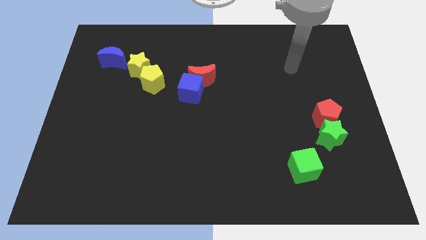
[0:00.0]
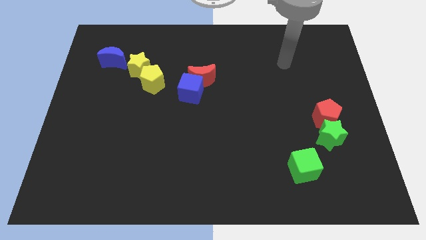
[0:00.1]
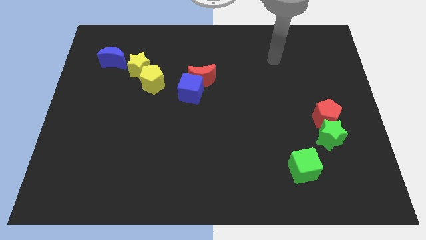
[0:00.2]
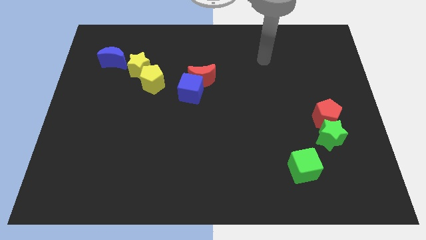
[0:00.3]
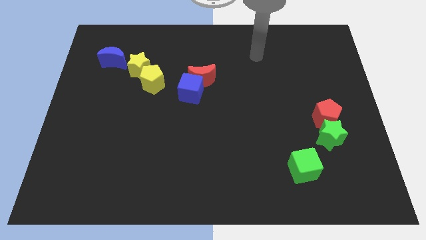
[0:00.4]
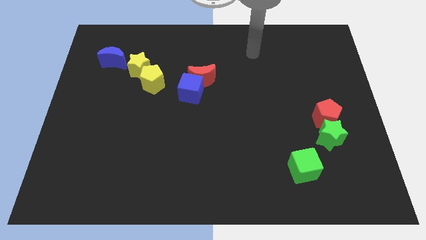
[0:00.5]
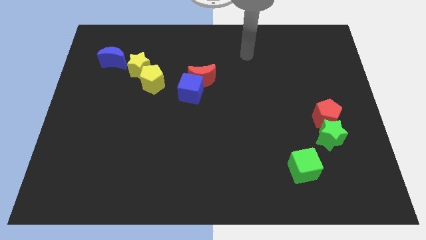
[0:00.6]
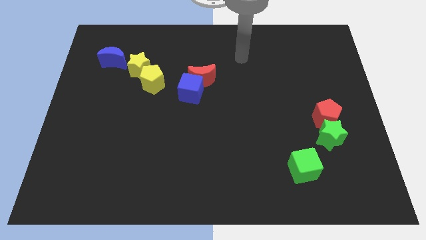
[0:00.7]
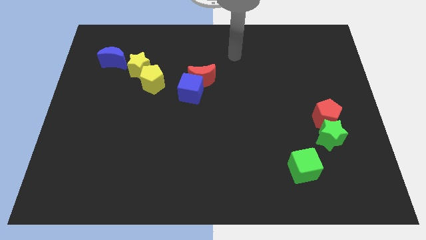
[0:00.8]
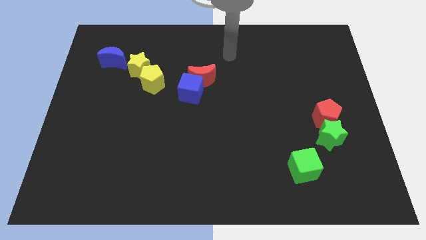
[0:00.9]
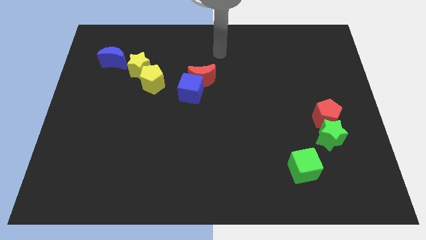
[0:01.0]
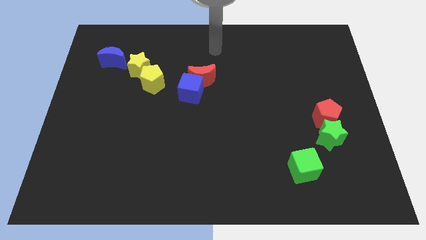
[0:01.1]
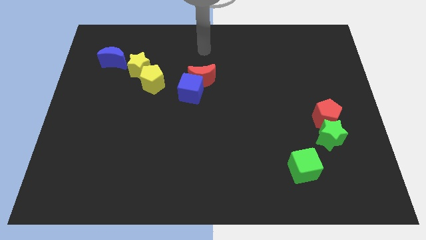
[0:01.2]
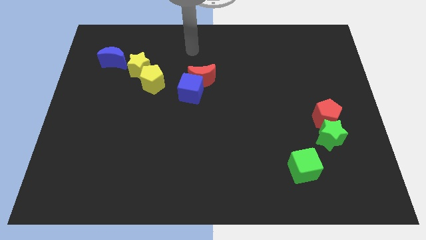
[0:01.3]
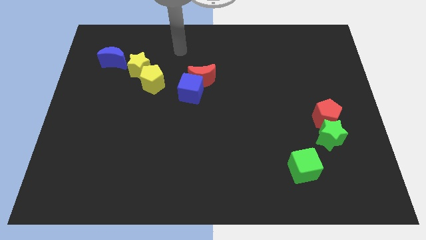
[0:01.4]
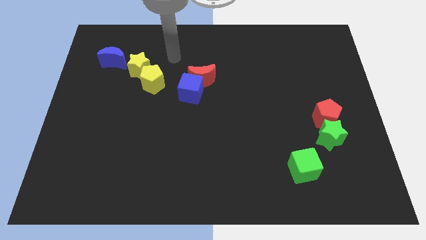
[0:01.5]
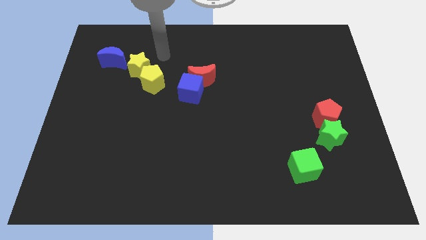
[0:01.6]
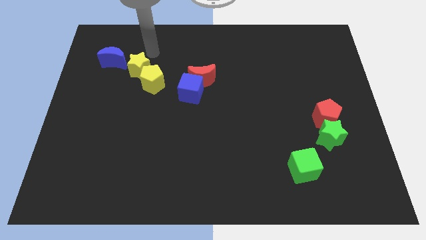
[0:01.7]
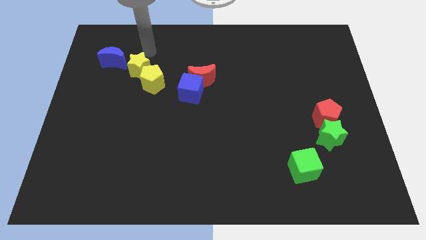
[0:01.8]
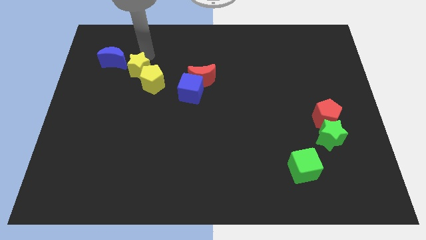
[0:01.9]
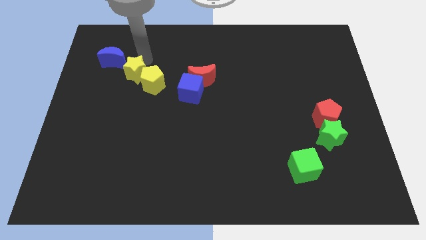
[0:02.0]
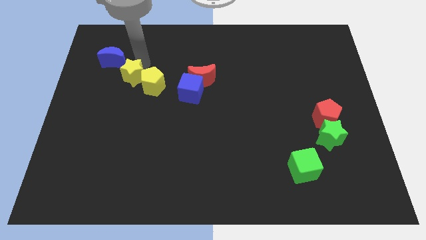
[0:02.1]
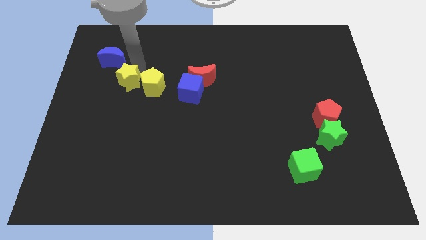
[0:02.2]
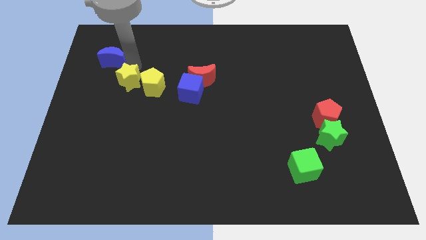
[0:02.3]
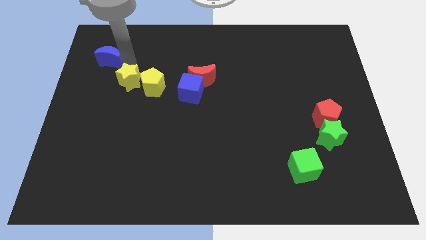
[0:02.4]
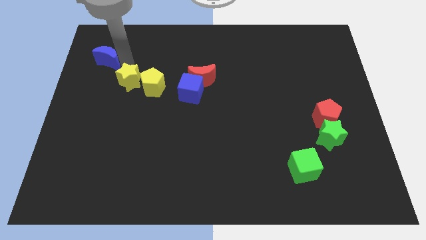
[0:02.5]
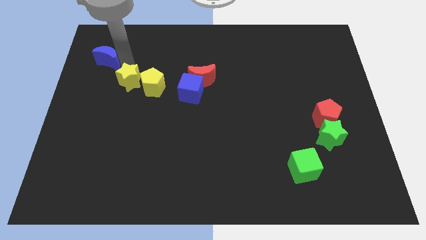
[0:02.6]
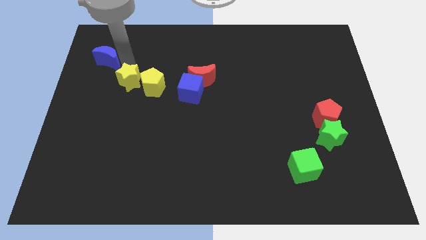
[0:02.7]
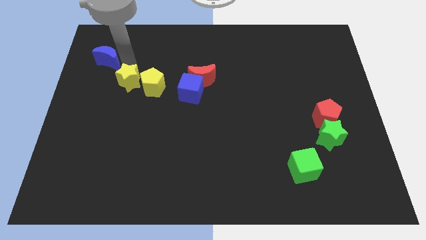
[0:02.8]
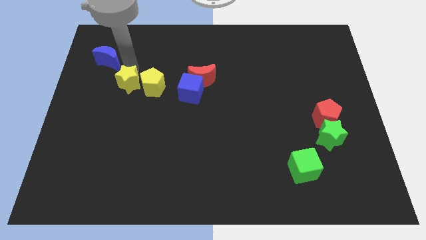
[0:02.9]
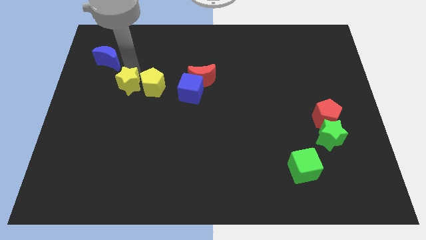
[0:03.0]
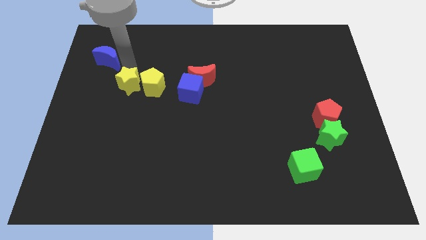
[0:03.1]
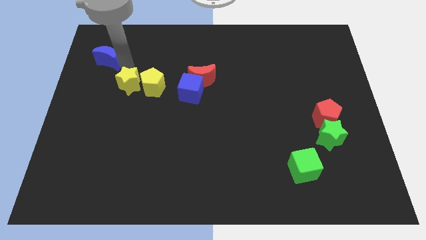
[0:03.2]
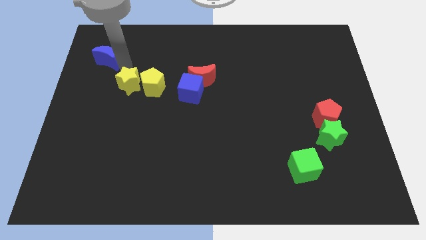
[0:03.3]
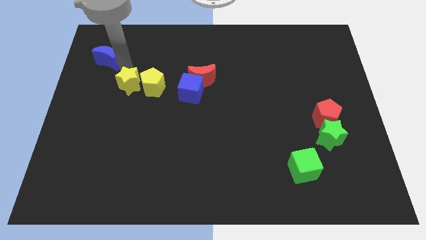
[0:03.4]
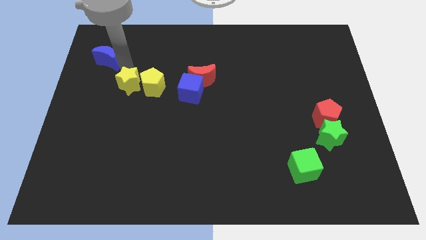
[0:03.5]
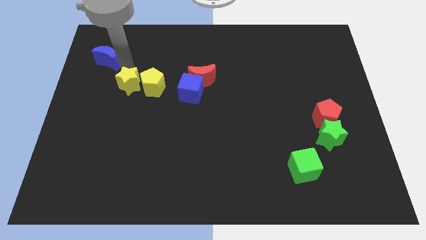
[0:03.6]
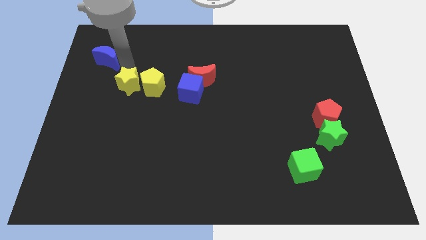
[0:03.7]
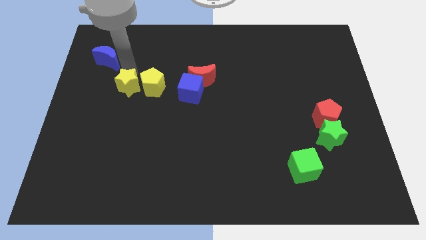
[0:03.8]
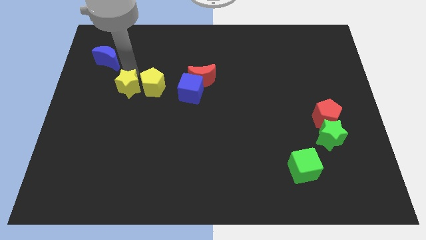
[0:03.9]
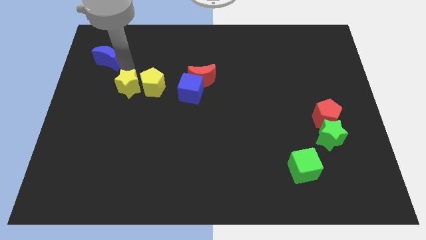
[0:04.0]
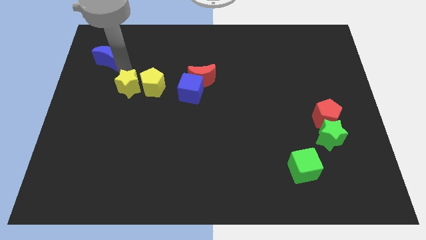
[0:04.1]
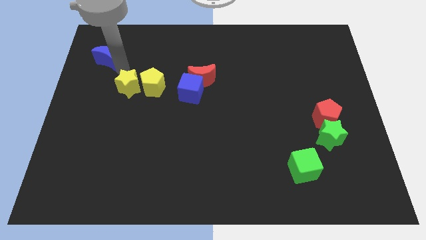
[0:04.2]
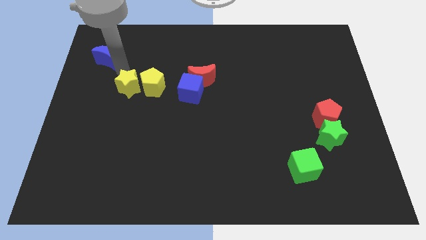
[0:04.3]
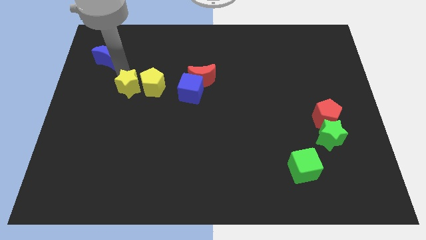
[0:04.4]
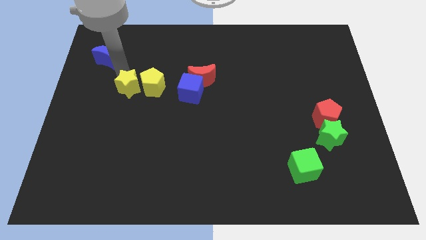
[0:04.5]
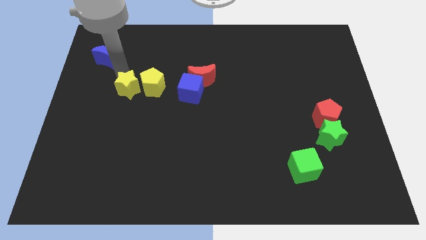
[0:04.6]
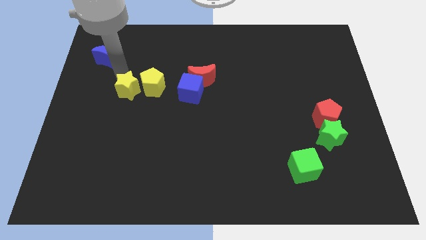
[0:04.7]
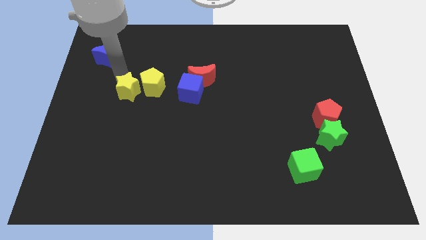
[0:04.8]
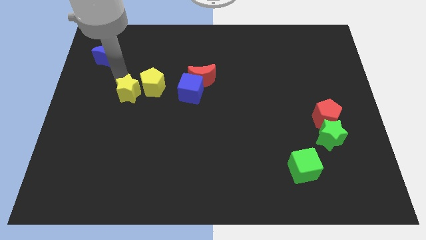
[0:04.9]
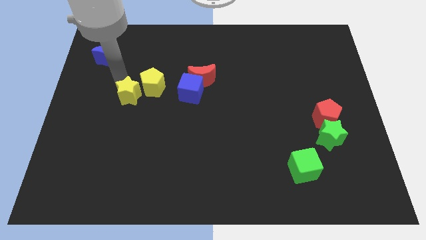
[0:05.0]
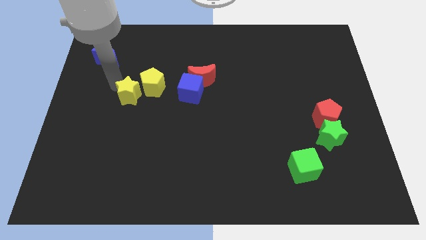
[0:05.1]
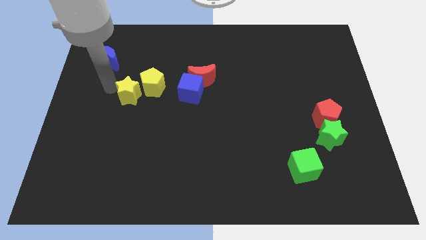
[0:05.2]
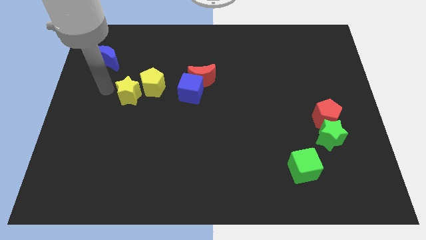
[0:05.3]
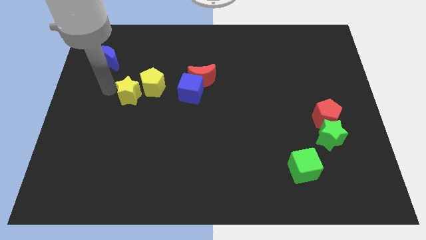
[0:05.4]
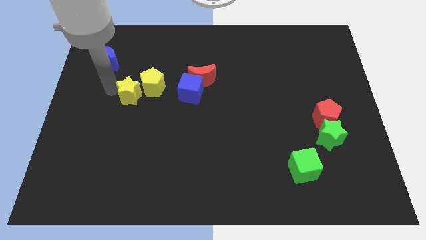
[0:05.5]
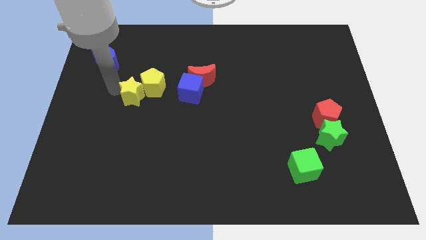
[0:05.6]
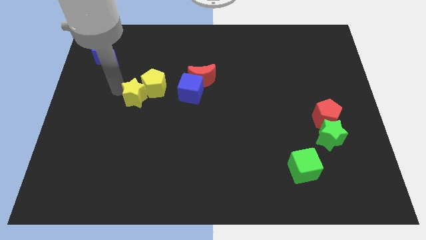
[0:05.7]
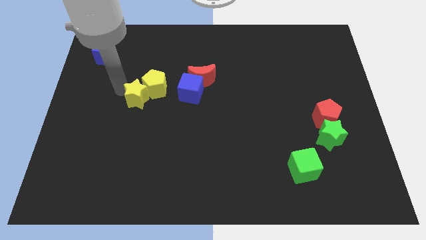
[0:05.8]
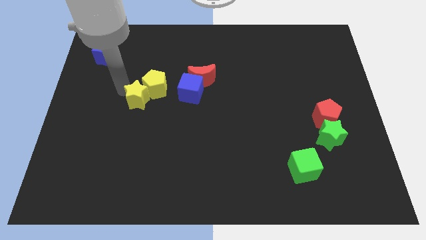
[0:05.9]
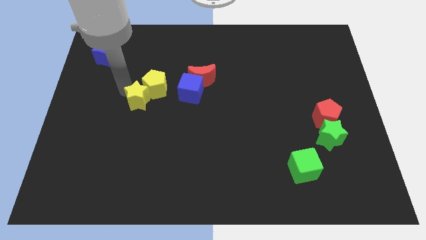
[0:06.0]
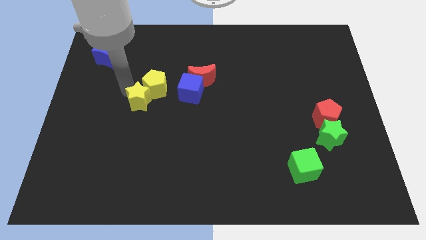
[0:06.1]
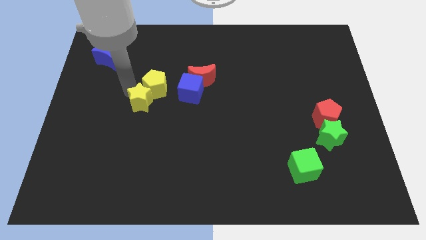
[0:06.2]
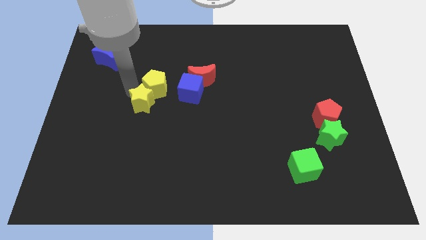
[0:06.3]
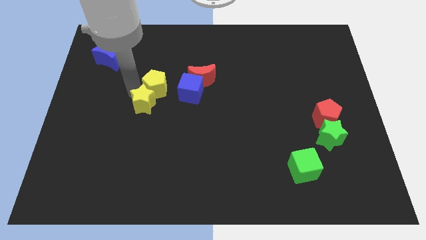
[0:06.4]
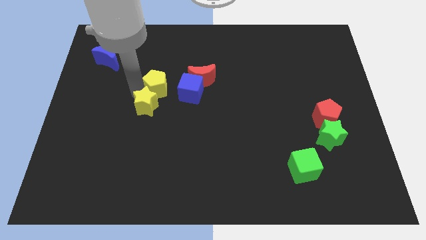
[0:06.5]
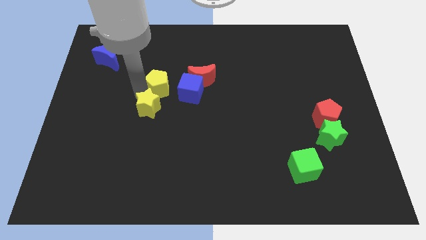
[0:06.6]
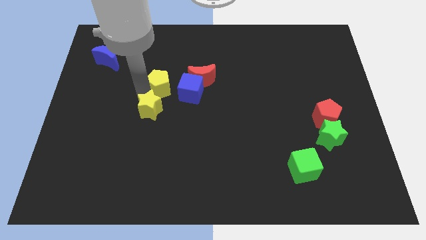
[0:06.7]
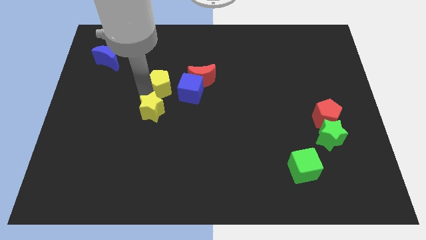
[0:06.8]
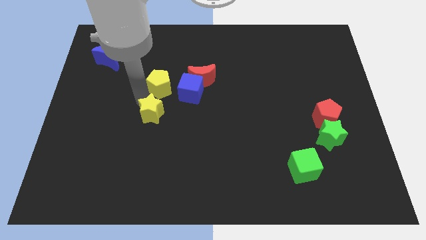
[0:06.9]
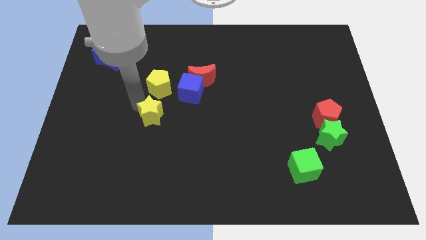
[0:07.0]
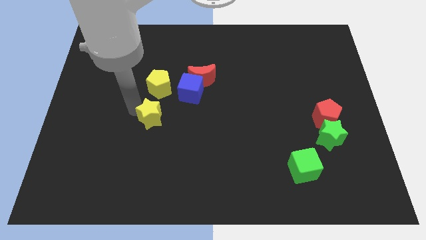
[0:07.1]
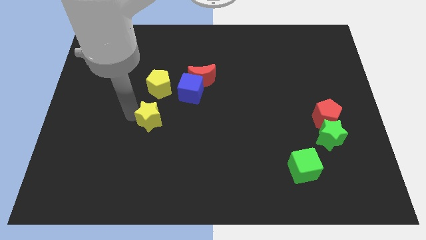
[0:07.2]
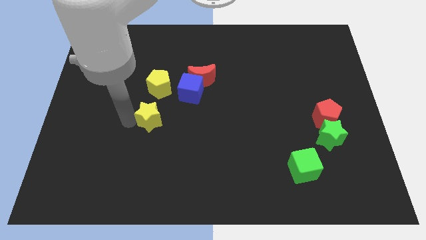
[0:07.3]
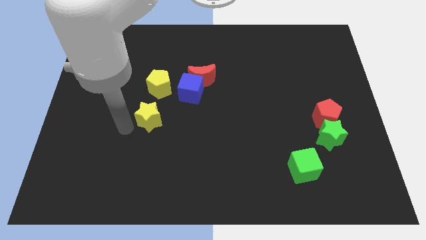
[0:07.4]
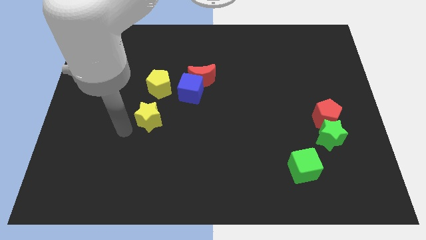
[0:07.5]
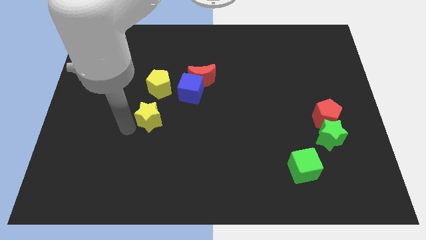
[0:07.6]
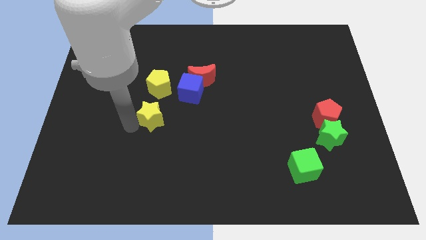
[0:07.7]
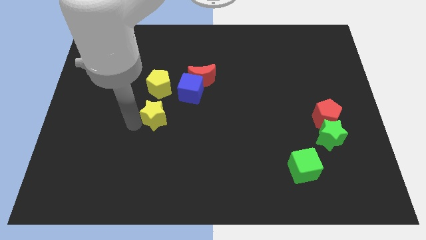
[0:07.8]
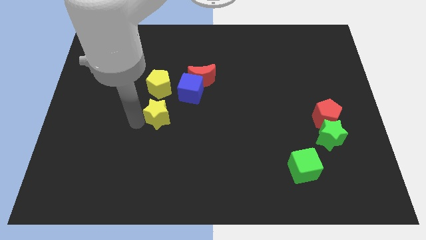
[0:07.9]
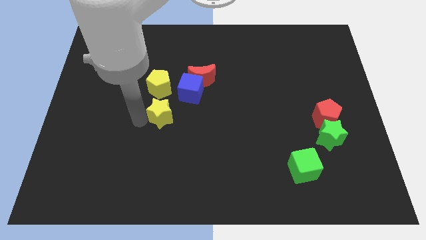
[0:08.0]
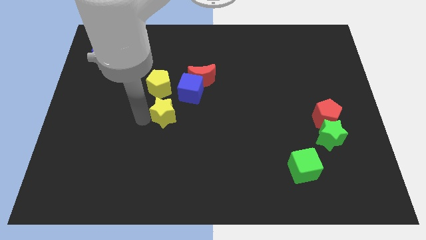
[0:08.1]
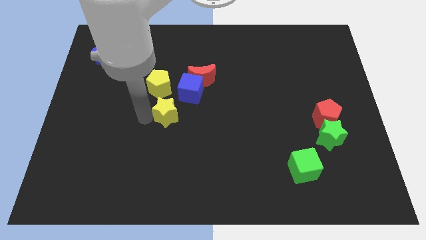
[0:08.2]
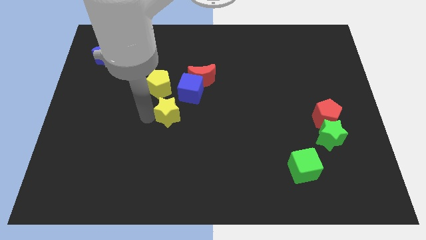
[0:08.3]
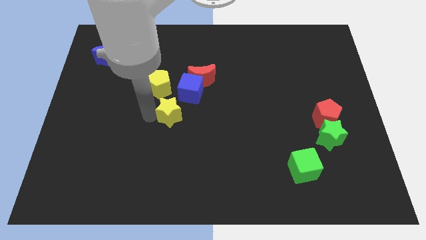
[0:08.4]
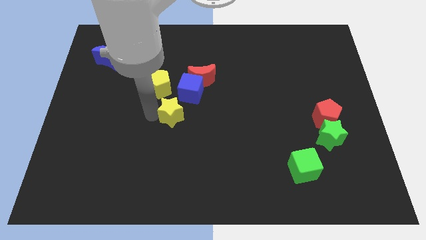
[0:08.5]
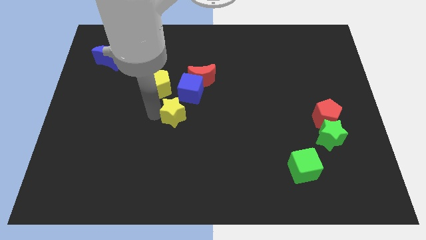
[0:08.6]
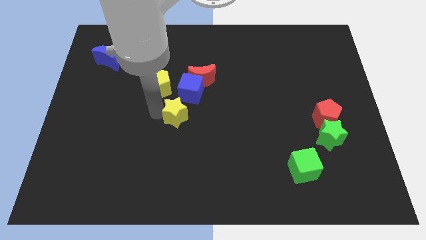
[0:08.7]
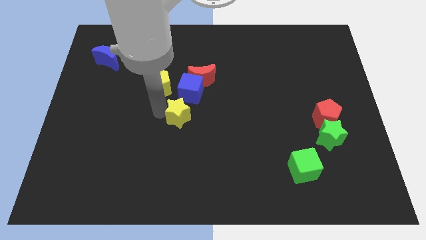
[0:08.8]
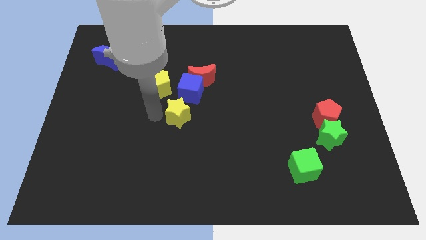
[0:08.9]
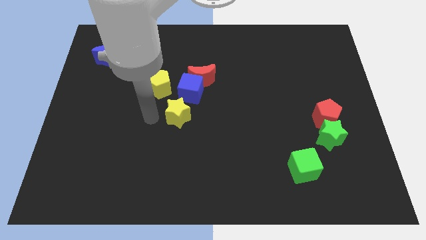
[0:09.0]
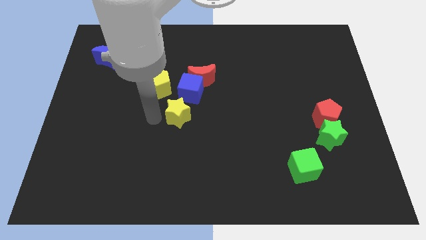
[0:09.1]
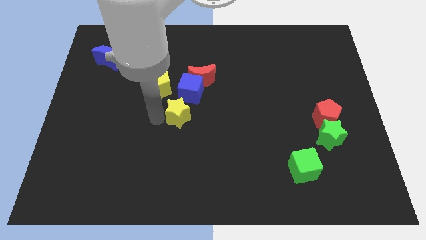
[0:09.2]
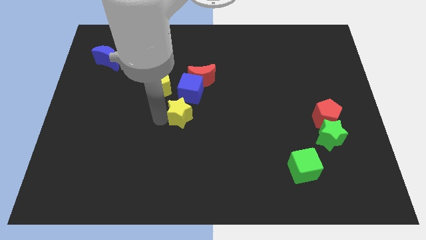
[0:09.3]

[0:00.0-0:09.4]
put the yellow star below the red moon
